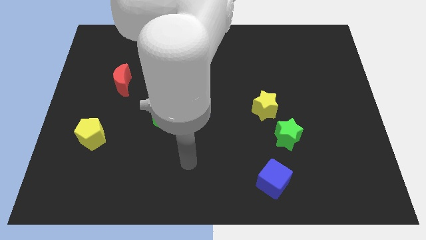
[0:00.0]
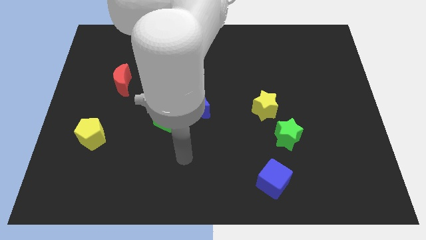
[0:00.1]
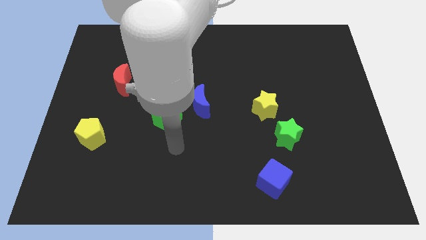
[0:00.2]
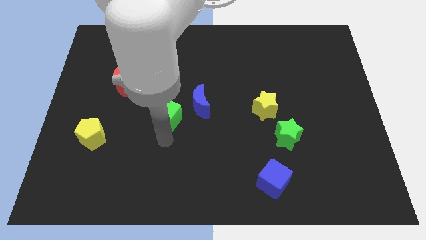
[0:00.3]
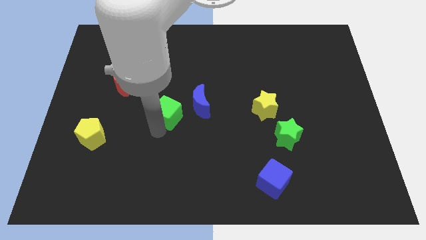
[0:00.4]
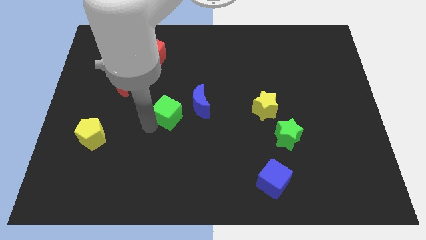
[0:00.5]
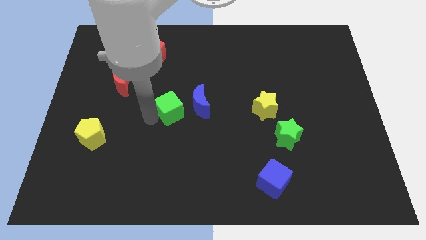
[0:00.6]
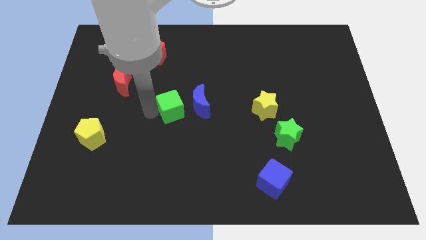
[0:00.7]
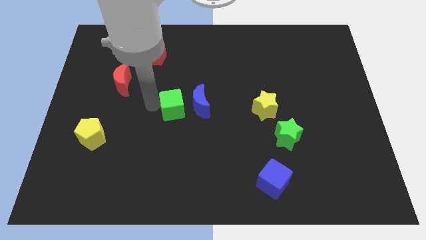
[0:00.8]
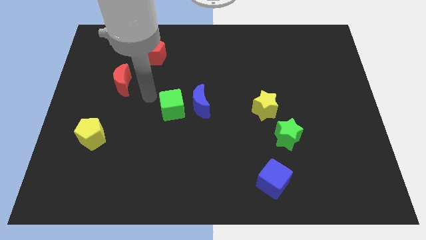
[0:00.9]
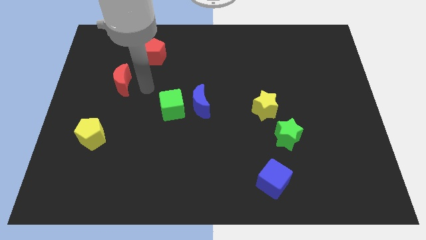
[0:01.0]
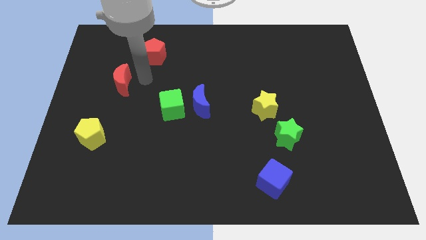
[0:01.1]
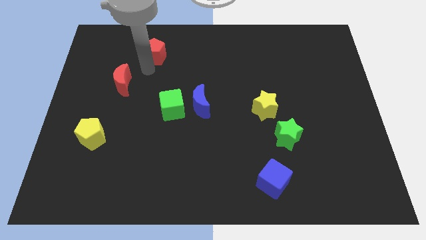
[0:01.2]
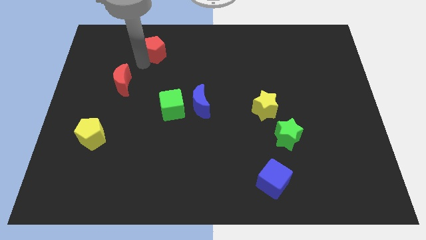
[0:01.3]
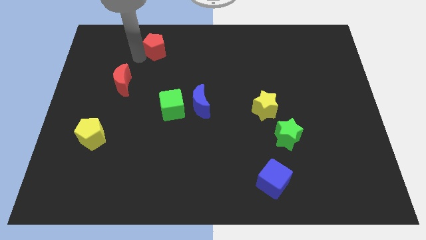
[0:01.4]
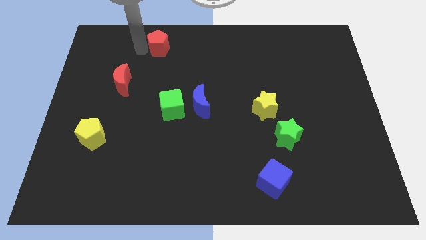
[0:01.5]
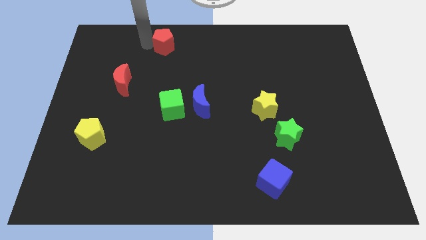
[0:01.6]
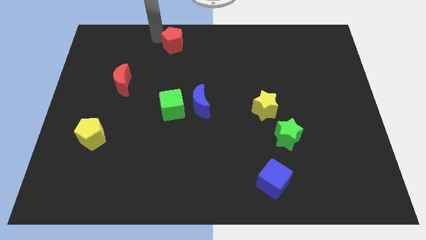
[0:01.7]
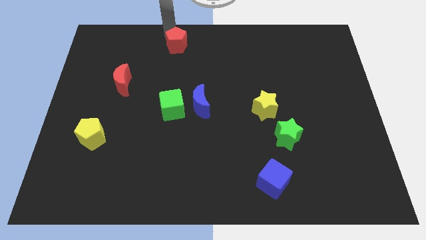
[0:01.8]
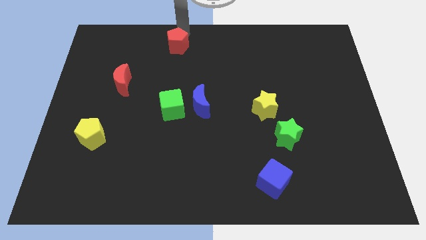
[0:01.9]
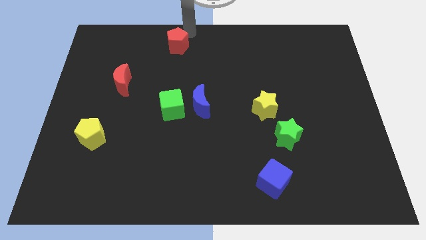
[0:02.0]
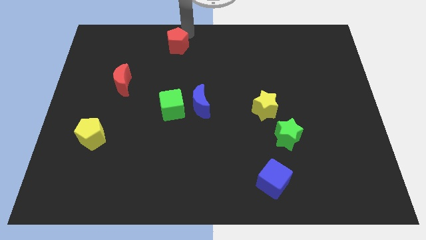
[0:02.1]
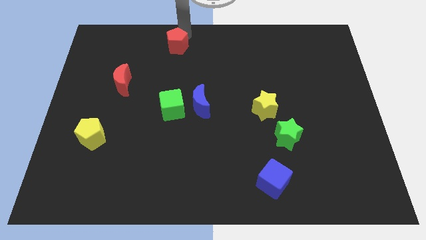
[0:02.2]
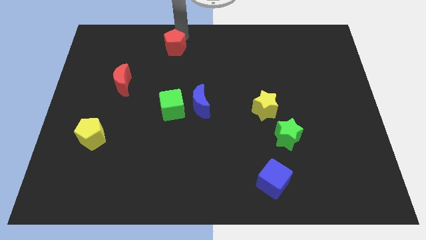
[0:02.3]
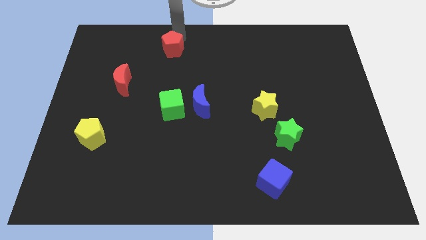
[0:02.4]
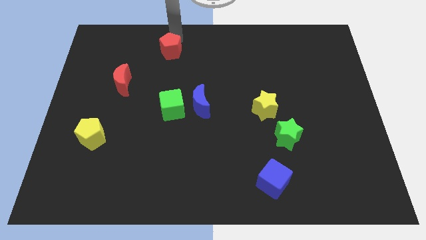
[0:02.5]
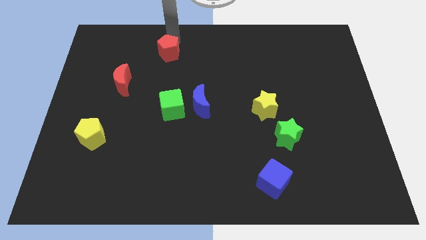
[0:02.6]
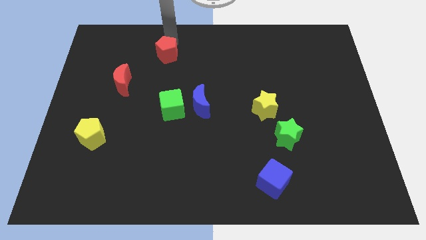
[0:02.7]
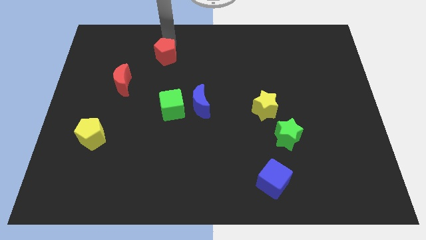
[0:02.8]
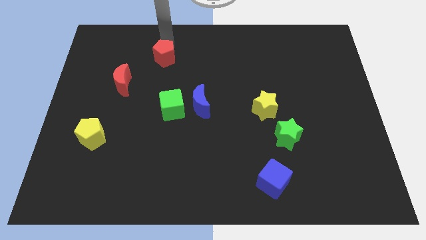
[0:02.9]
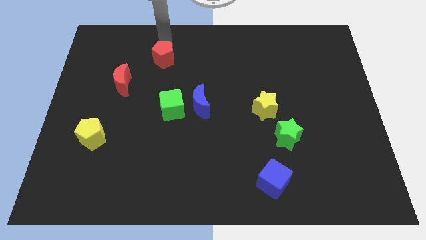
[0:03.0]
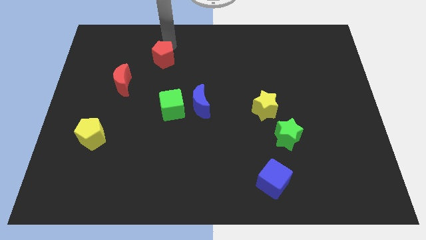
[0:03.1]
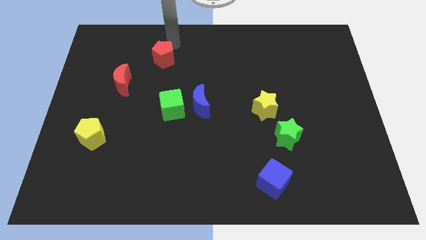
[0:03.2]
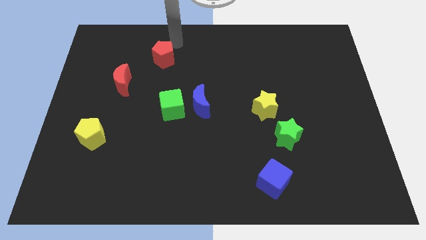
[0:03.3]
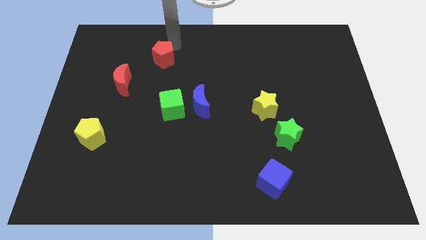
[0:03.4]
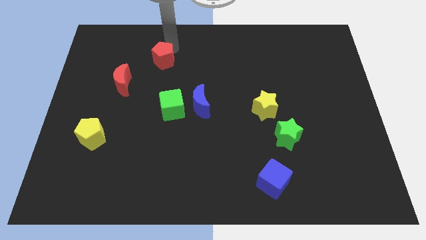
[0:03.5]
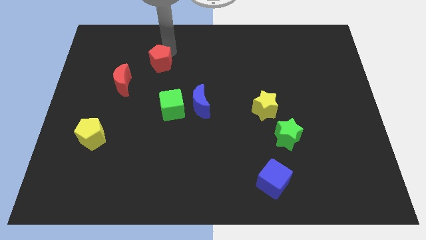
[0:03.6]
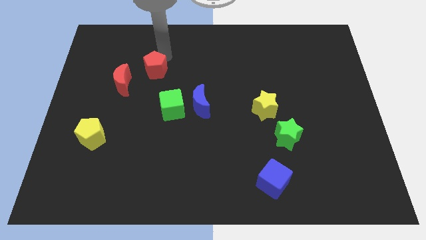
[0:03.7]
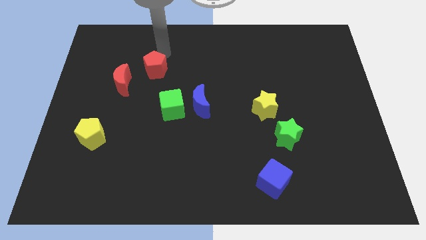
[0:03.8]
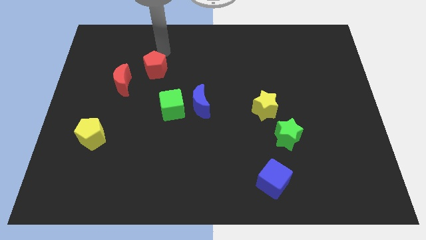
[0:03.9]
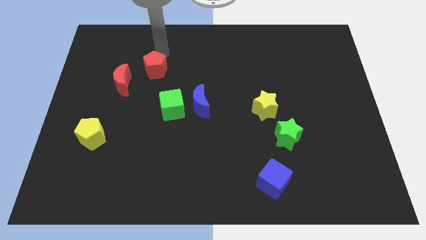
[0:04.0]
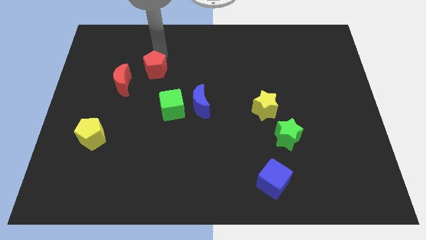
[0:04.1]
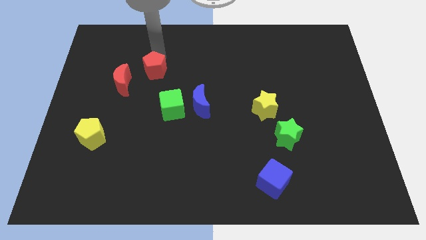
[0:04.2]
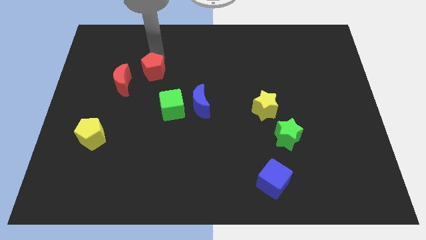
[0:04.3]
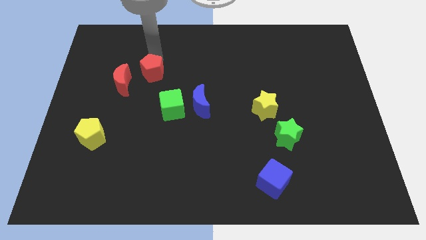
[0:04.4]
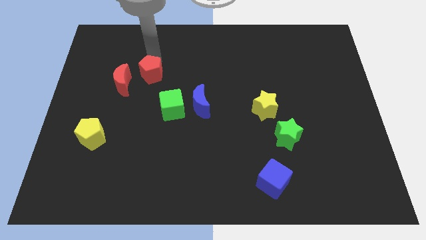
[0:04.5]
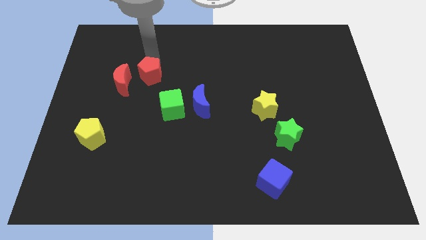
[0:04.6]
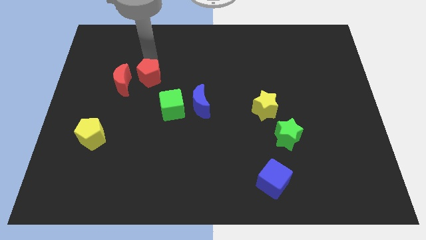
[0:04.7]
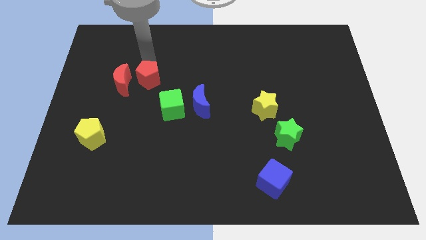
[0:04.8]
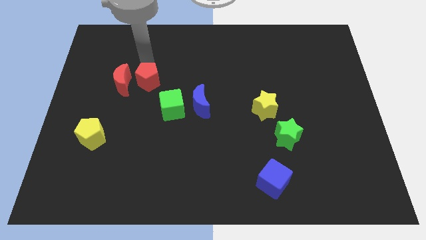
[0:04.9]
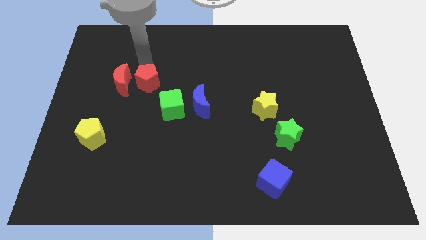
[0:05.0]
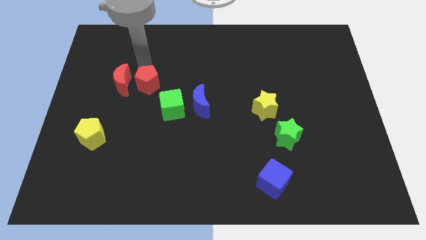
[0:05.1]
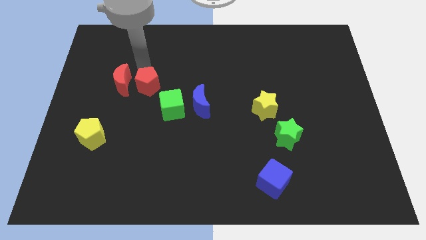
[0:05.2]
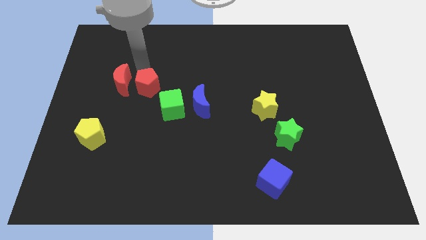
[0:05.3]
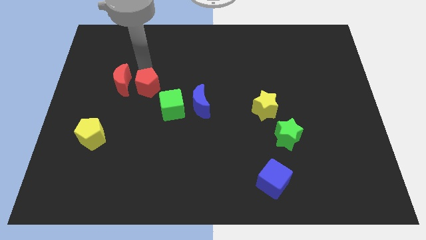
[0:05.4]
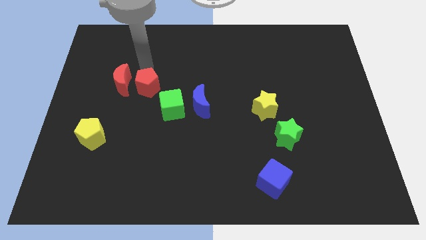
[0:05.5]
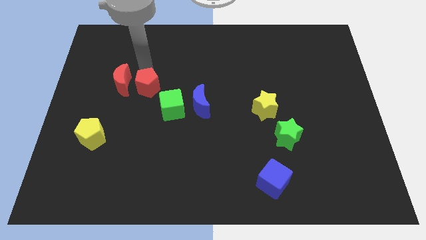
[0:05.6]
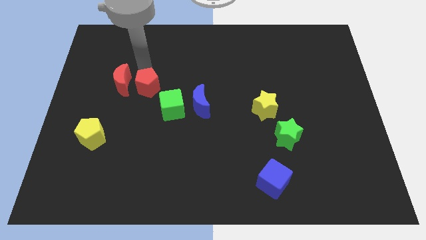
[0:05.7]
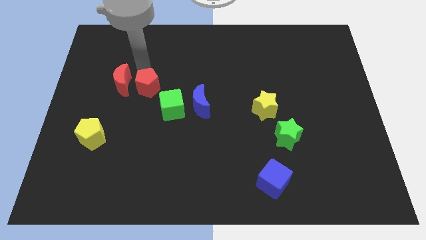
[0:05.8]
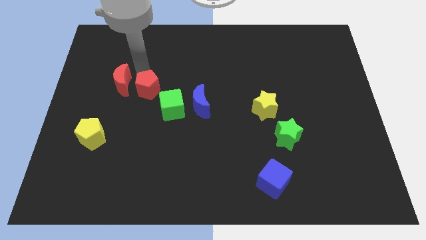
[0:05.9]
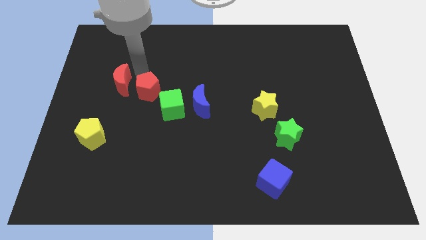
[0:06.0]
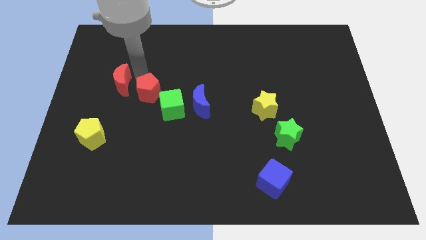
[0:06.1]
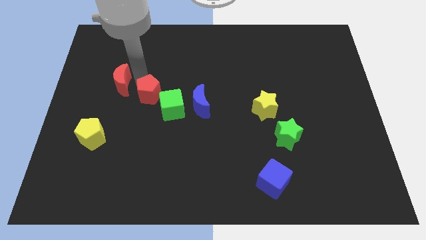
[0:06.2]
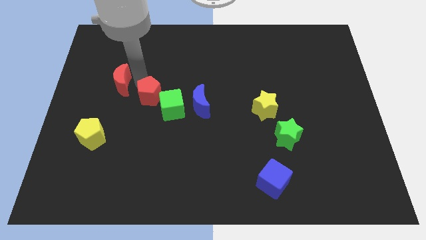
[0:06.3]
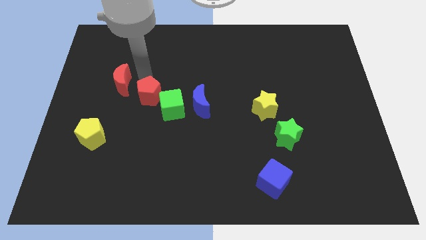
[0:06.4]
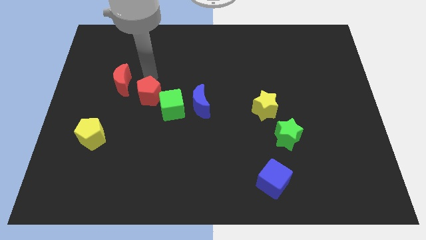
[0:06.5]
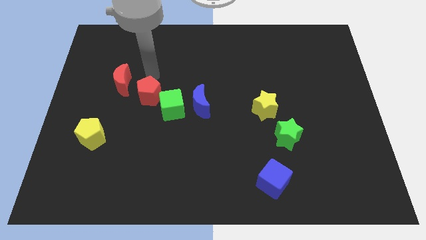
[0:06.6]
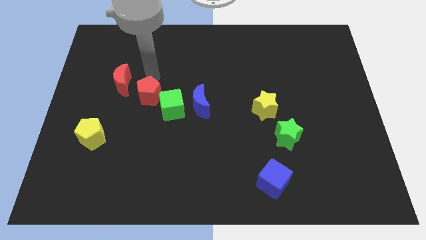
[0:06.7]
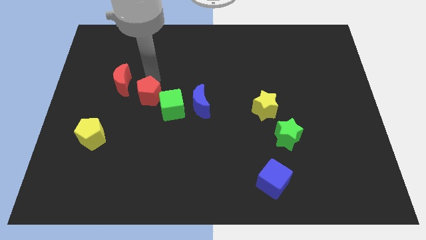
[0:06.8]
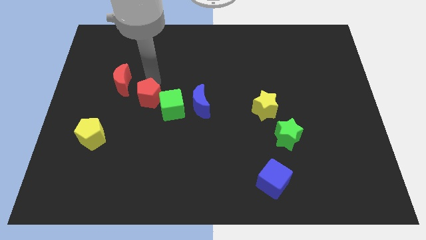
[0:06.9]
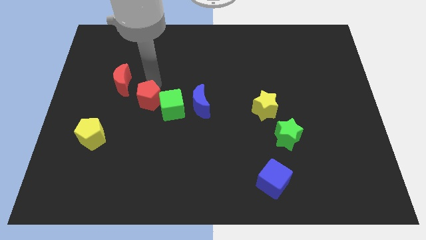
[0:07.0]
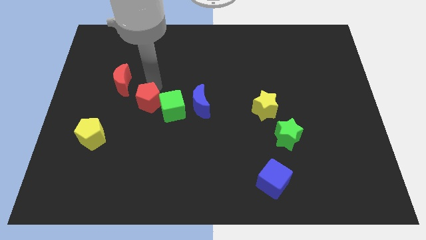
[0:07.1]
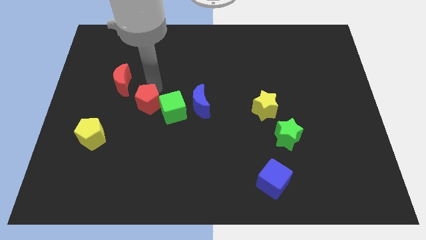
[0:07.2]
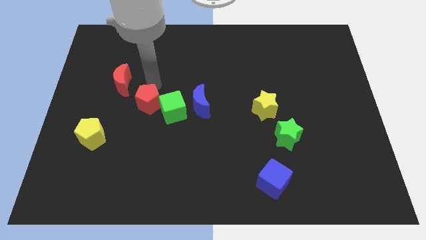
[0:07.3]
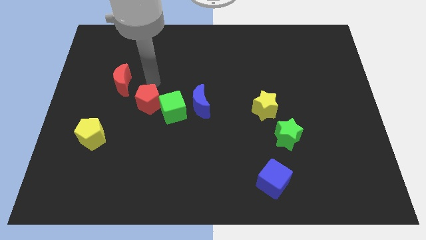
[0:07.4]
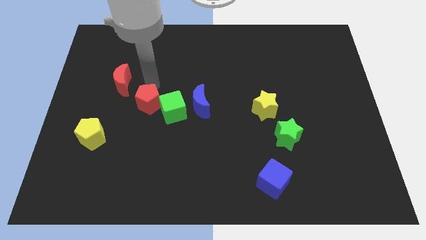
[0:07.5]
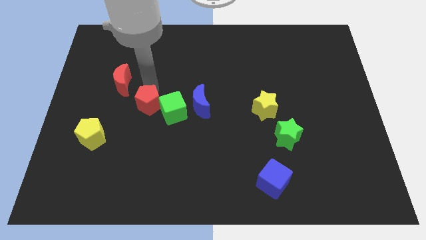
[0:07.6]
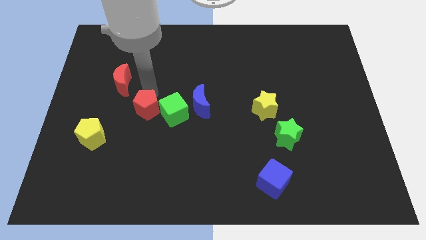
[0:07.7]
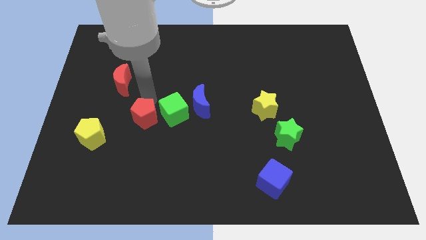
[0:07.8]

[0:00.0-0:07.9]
move the red pentagon downwards
